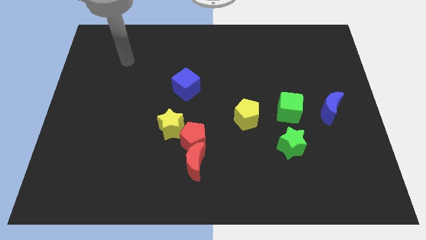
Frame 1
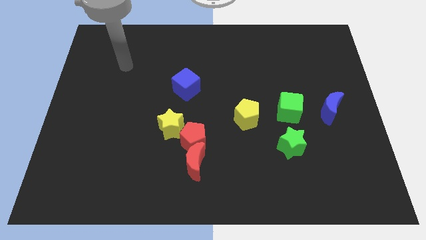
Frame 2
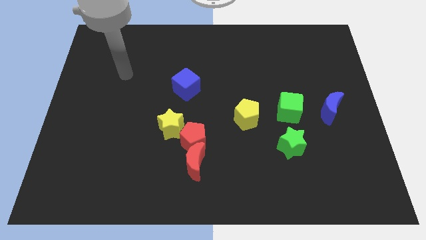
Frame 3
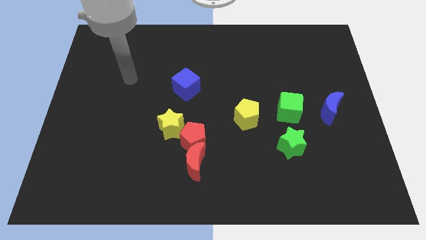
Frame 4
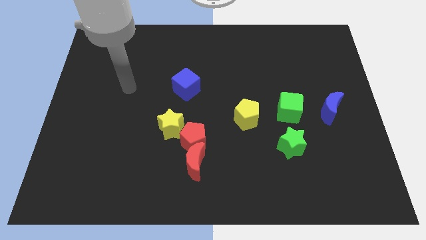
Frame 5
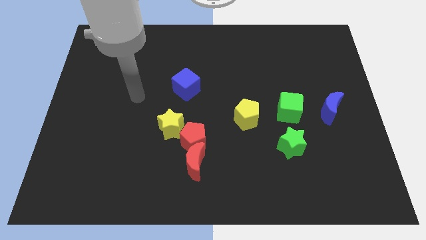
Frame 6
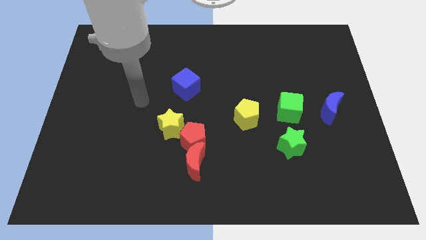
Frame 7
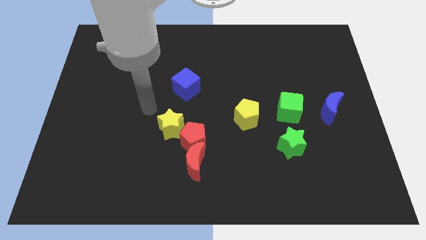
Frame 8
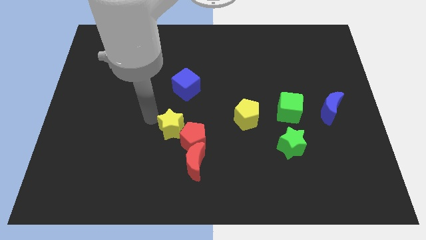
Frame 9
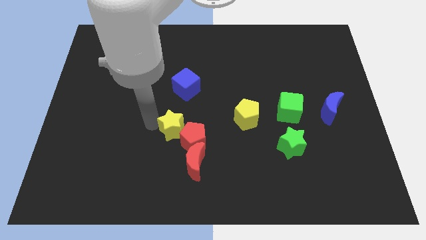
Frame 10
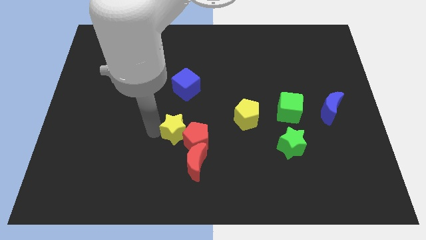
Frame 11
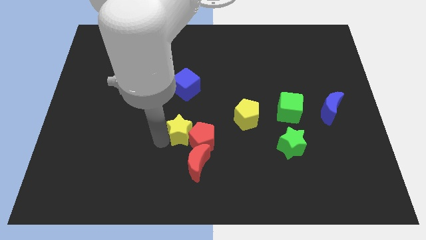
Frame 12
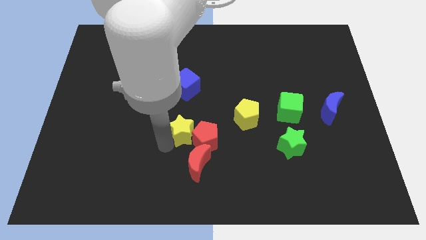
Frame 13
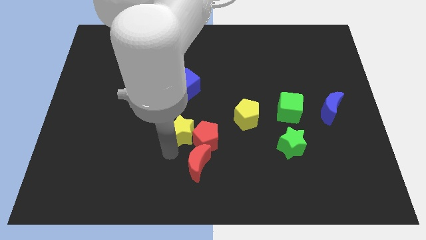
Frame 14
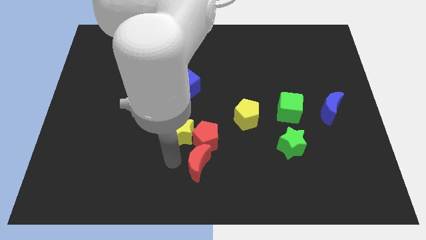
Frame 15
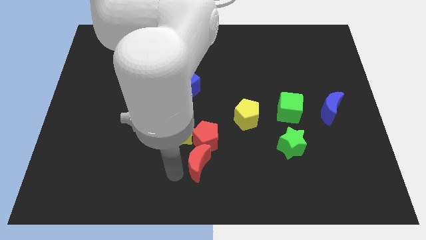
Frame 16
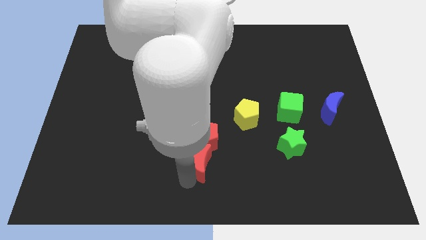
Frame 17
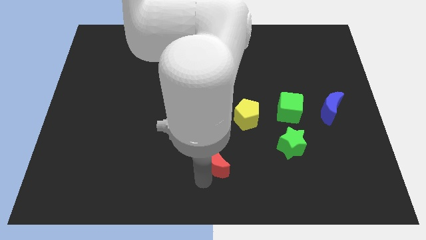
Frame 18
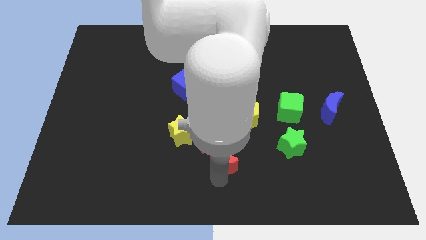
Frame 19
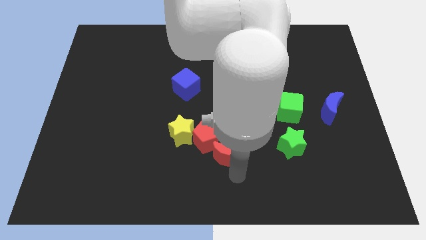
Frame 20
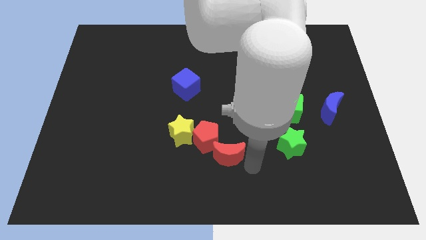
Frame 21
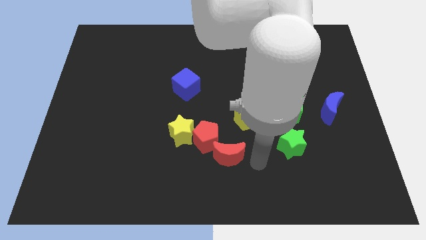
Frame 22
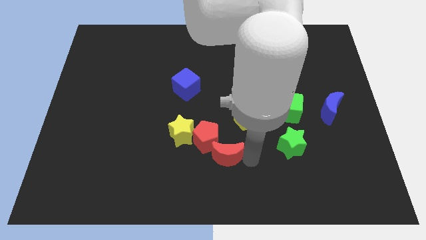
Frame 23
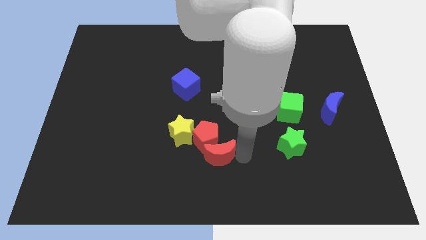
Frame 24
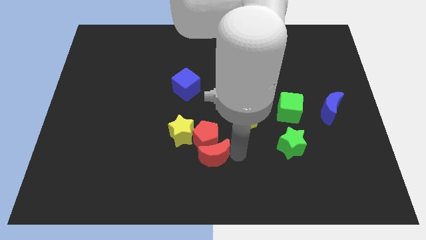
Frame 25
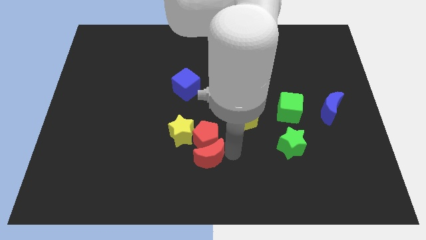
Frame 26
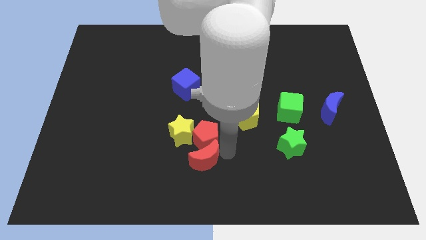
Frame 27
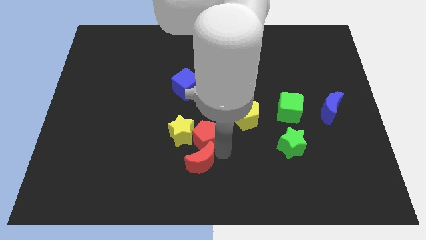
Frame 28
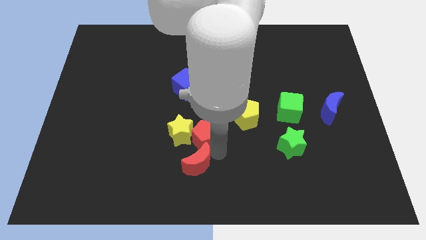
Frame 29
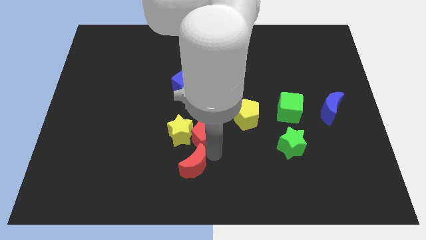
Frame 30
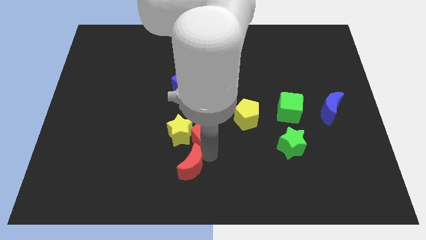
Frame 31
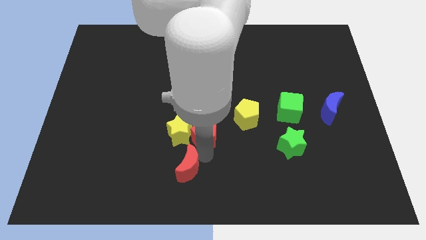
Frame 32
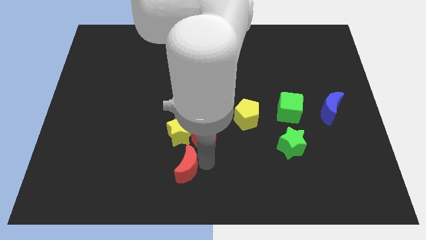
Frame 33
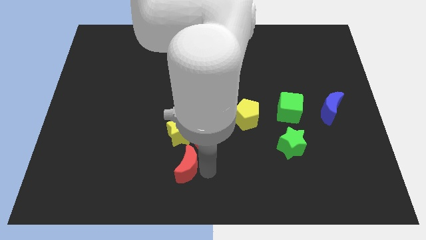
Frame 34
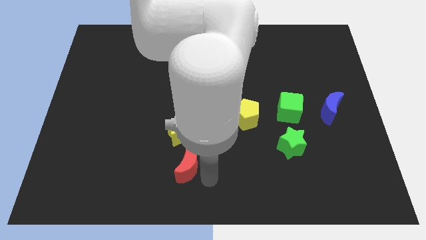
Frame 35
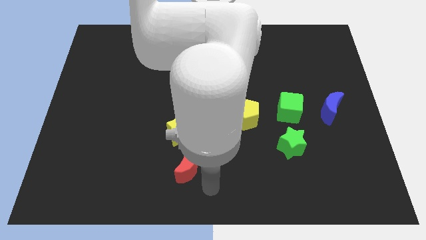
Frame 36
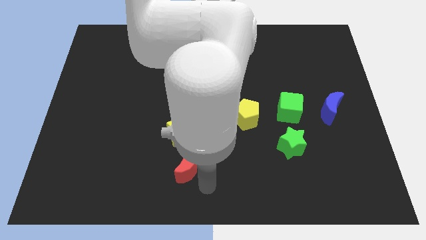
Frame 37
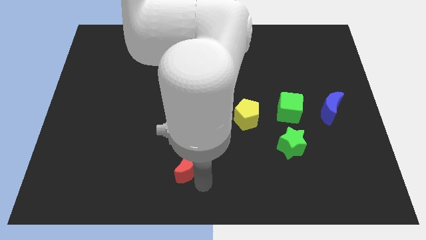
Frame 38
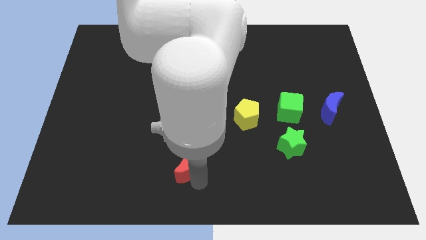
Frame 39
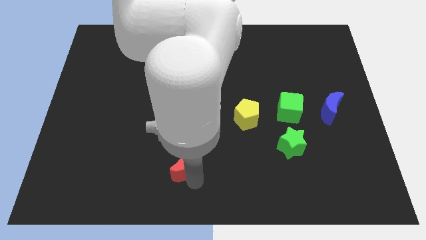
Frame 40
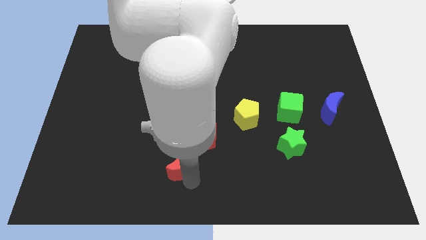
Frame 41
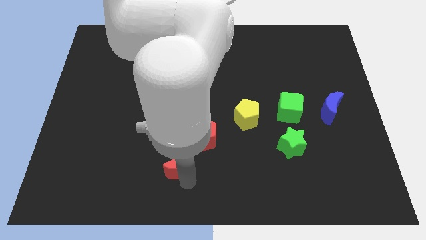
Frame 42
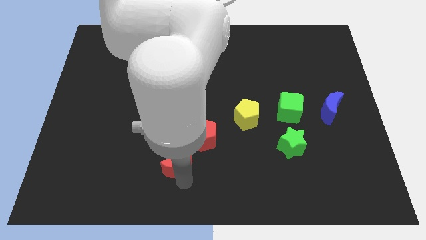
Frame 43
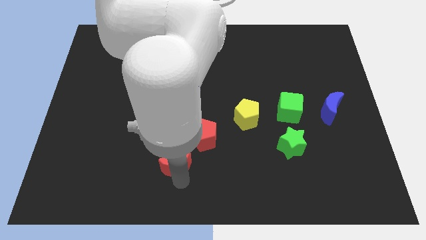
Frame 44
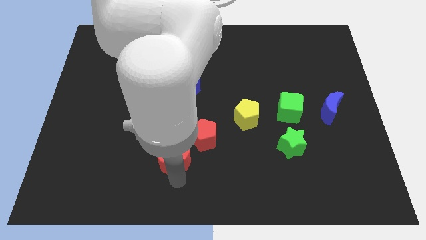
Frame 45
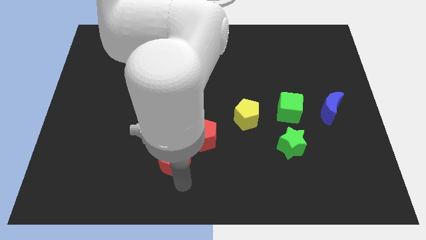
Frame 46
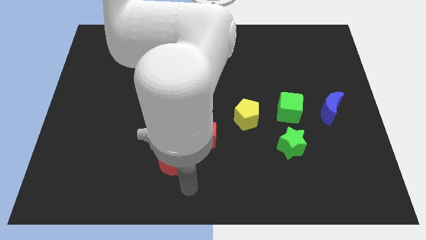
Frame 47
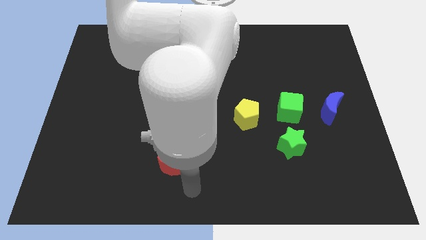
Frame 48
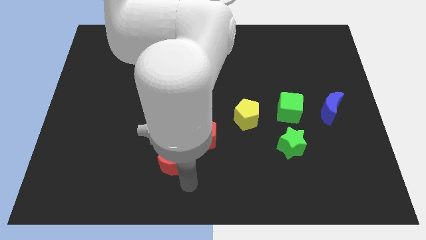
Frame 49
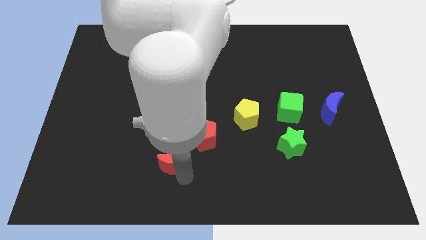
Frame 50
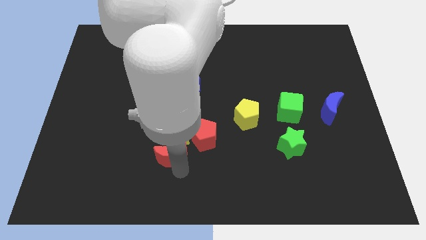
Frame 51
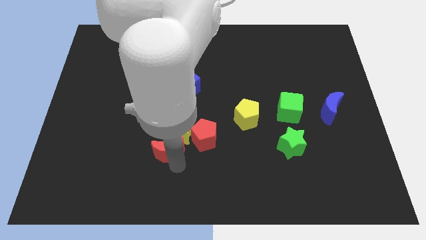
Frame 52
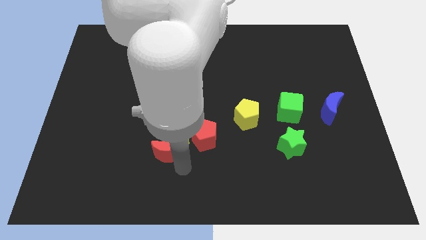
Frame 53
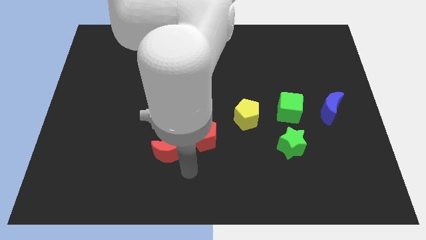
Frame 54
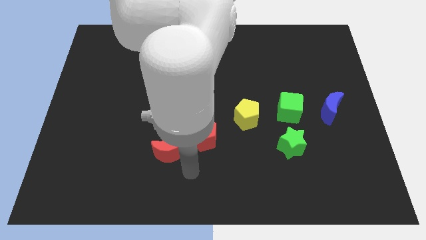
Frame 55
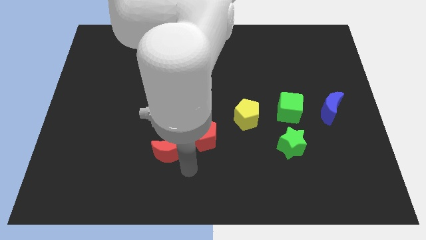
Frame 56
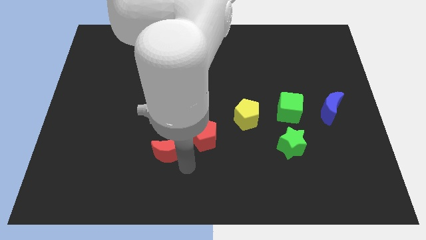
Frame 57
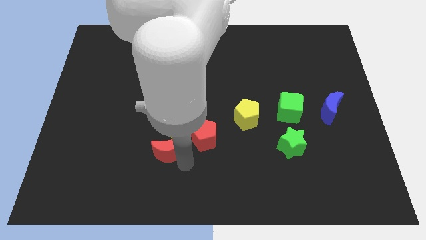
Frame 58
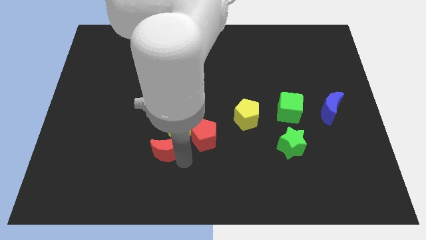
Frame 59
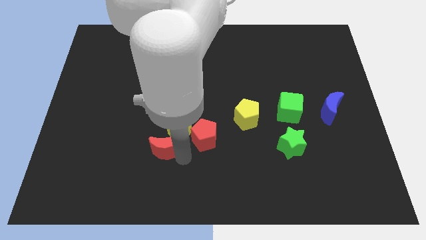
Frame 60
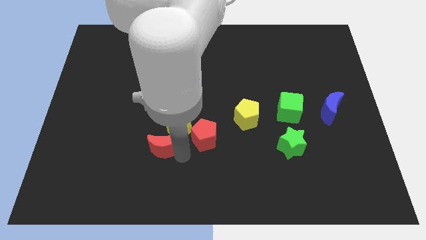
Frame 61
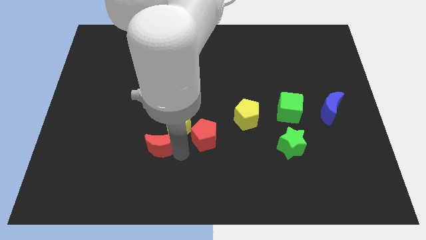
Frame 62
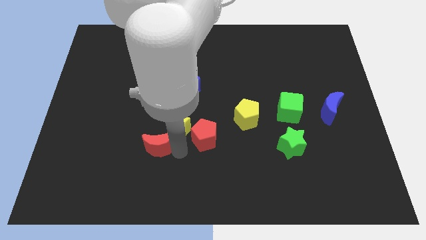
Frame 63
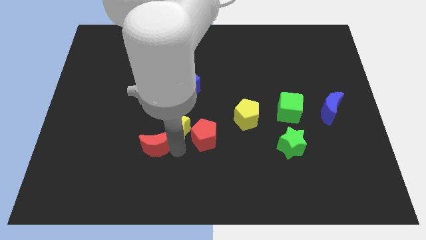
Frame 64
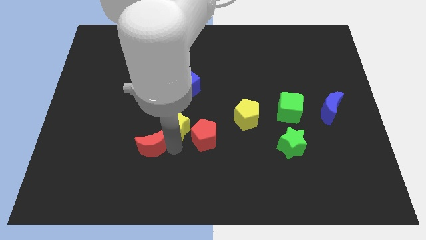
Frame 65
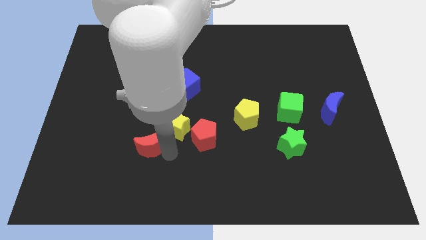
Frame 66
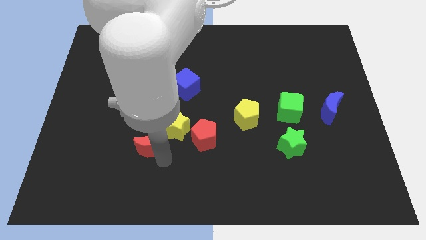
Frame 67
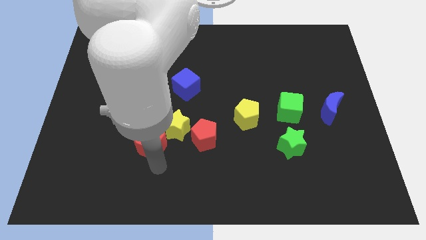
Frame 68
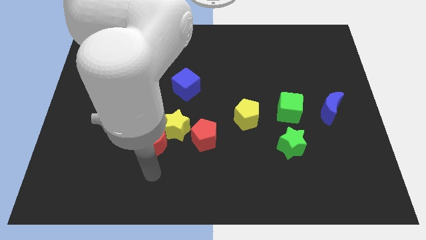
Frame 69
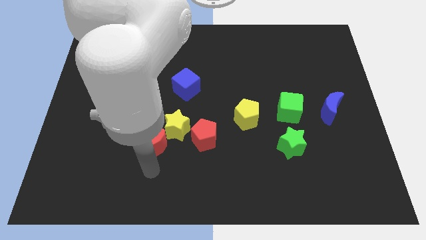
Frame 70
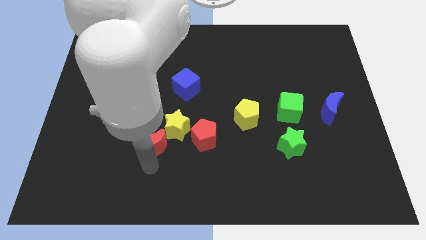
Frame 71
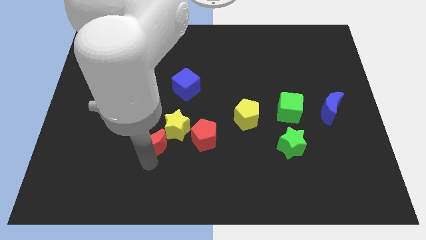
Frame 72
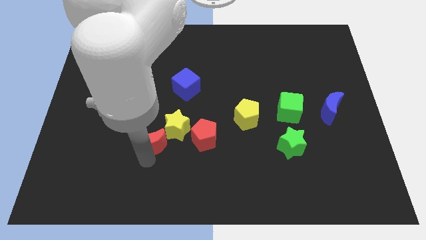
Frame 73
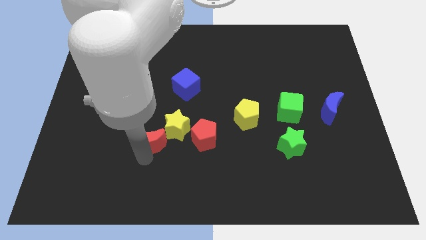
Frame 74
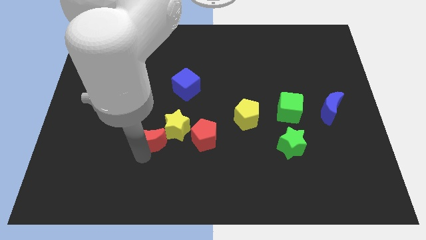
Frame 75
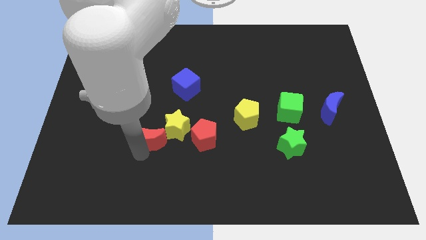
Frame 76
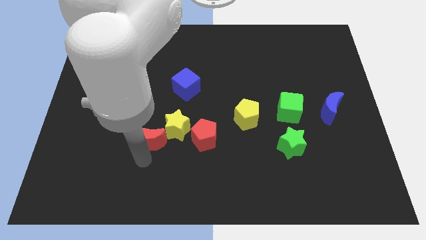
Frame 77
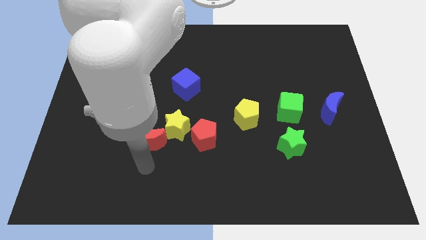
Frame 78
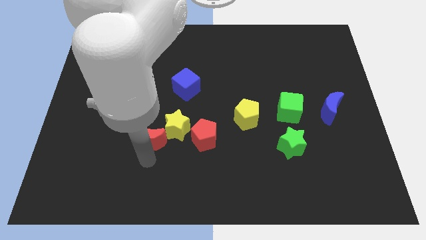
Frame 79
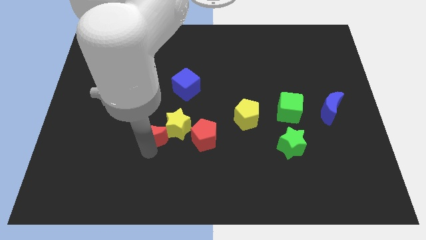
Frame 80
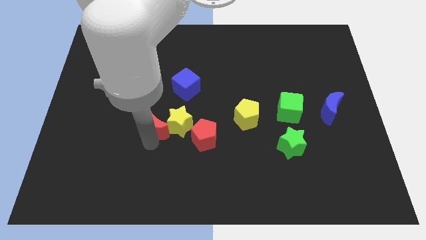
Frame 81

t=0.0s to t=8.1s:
move the red moon to the top left of the yellow star
